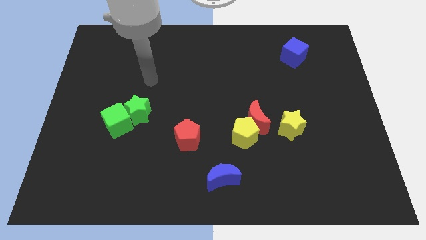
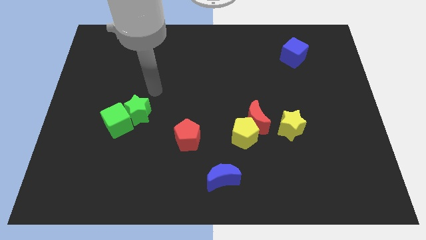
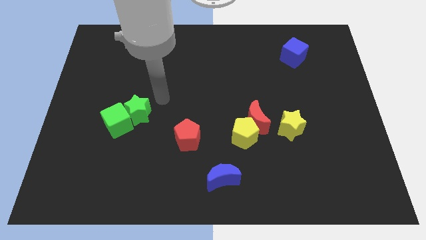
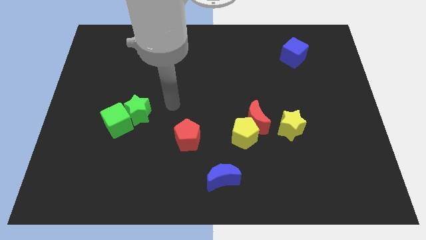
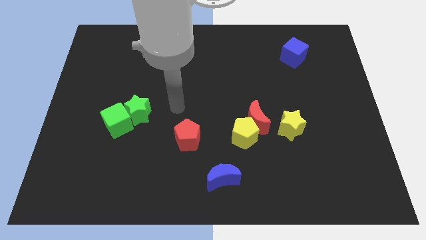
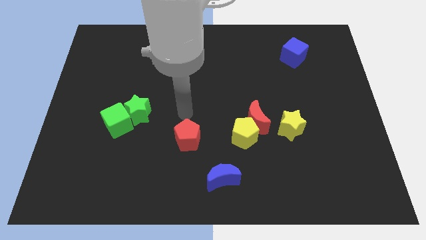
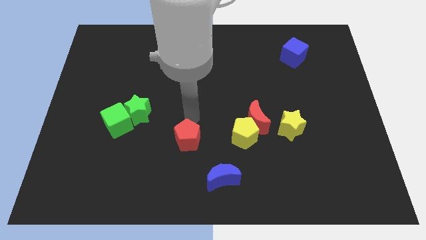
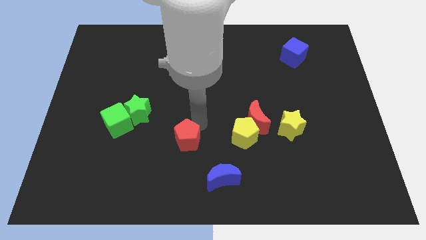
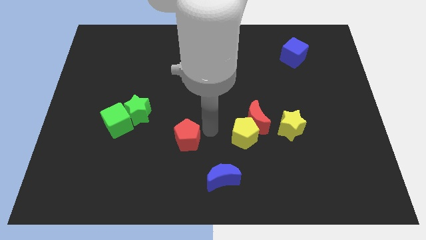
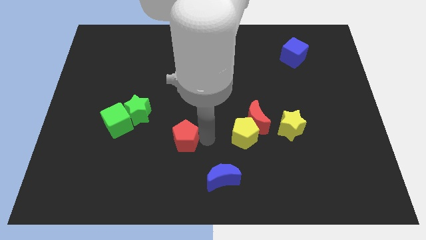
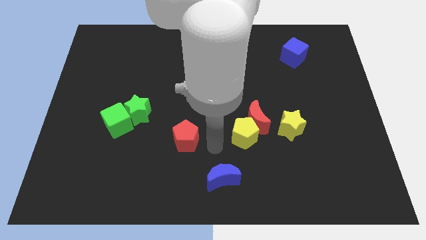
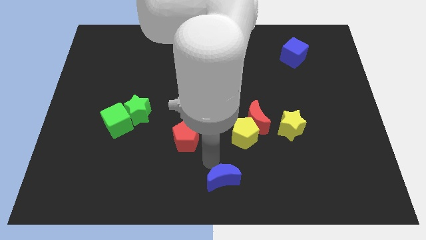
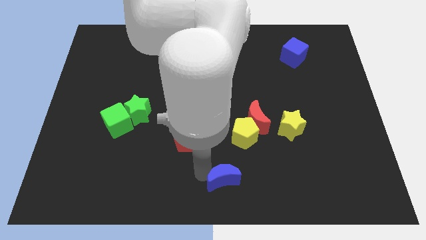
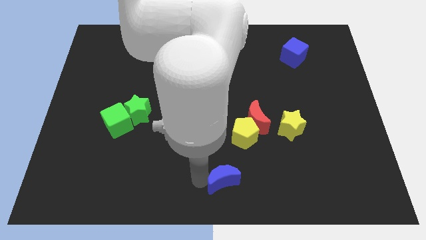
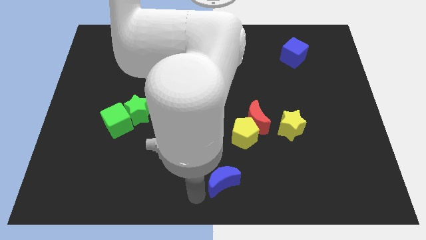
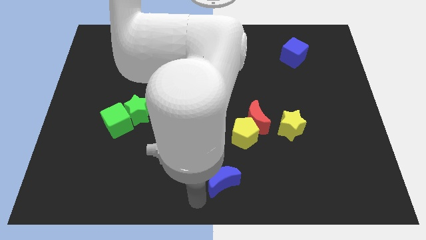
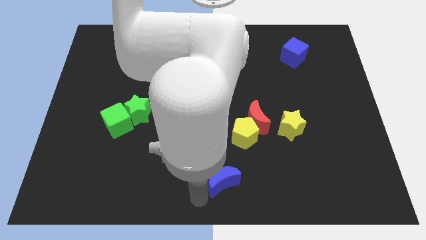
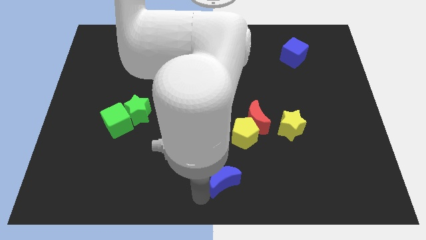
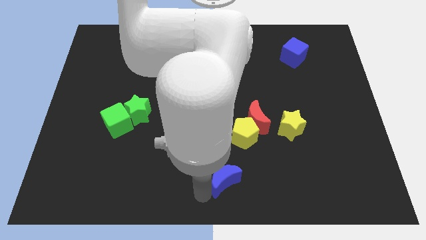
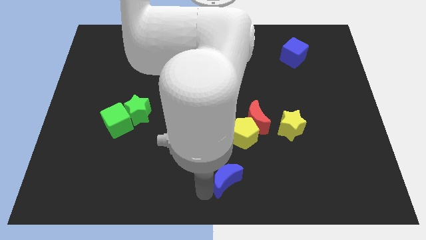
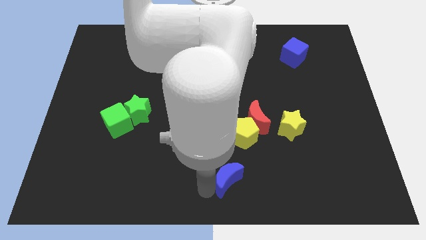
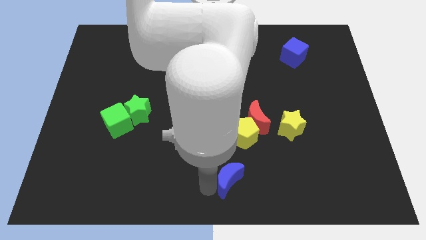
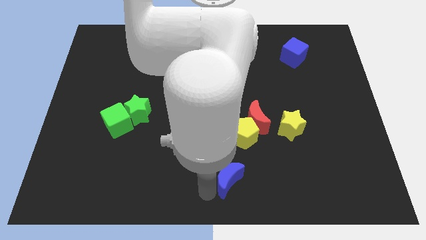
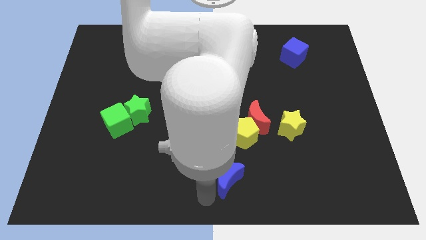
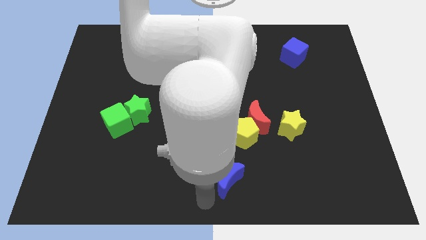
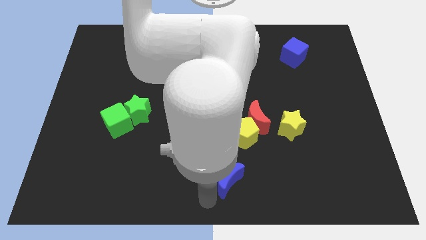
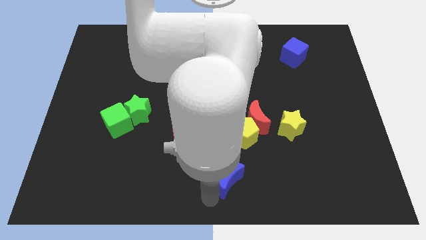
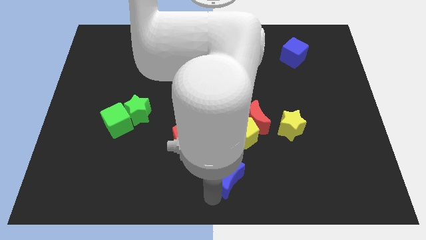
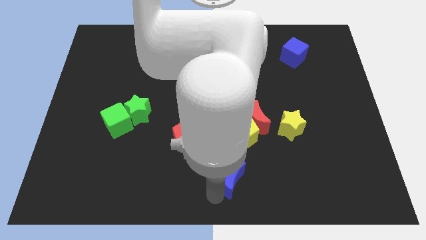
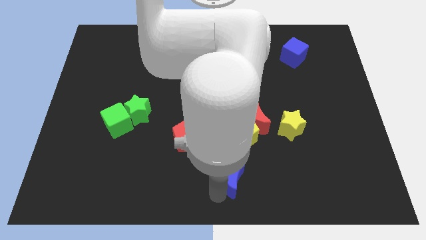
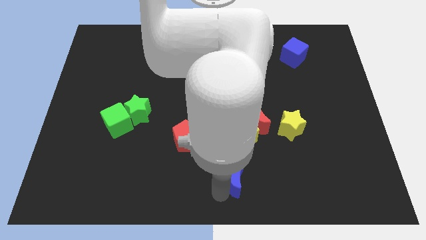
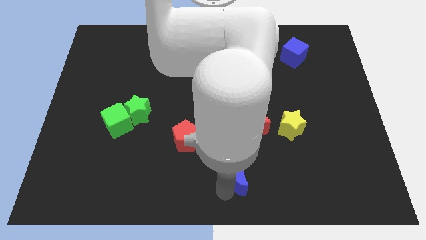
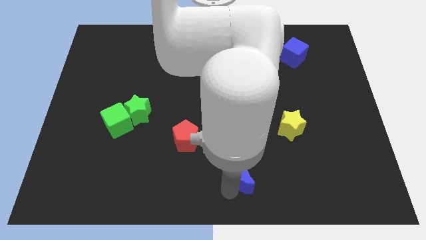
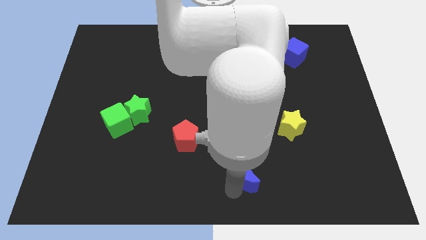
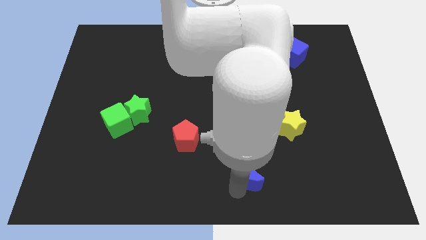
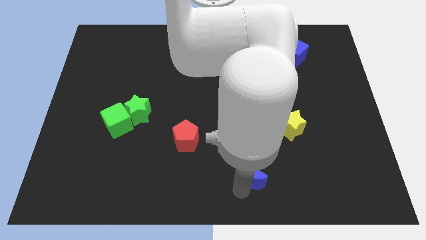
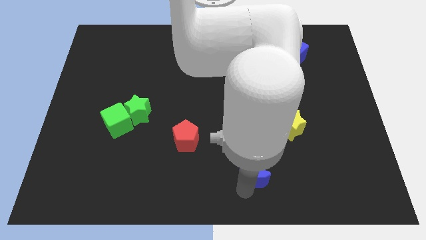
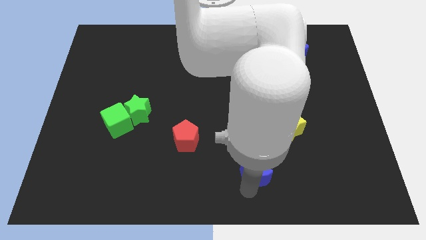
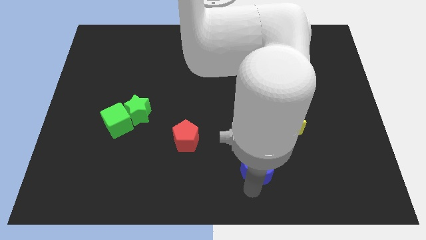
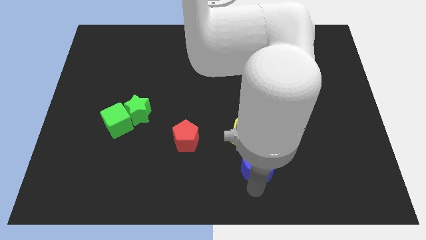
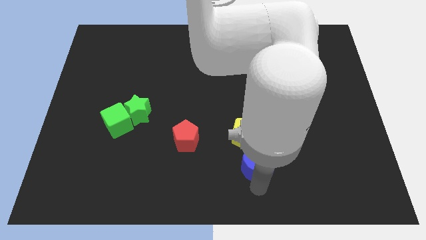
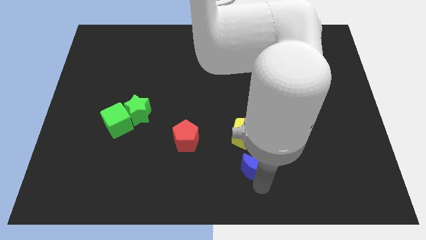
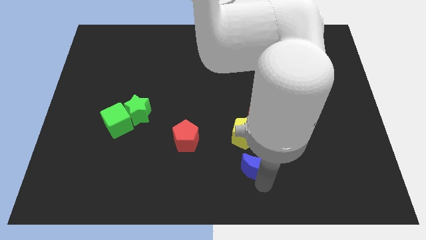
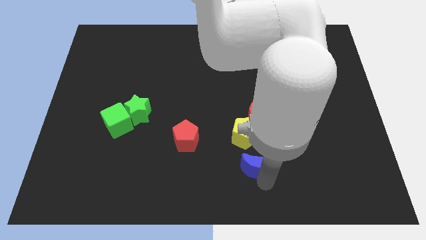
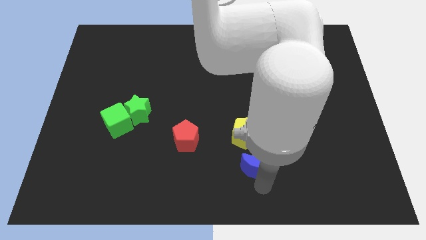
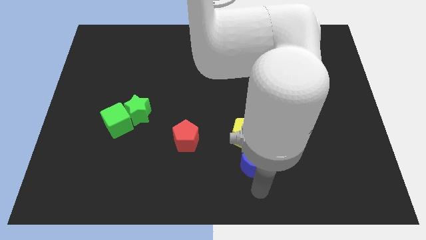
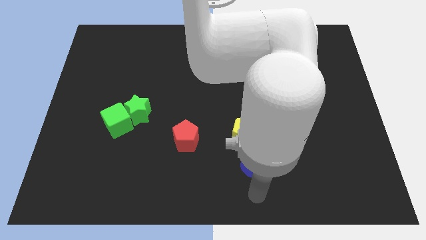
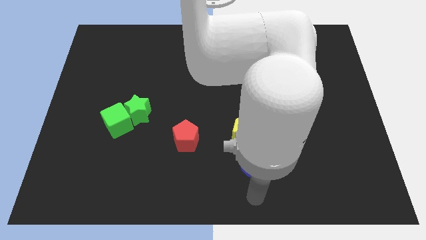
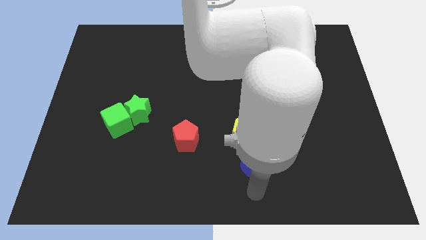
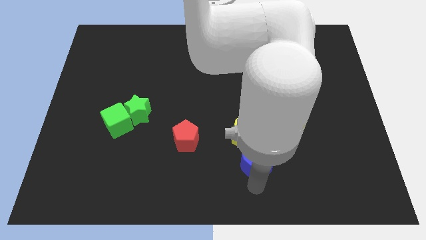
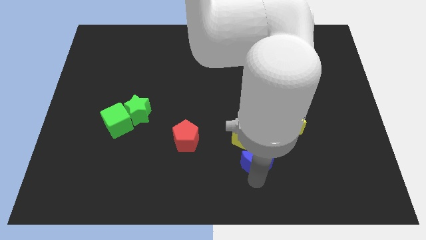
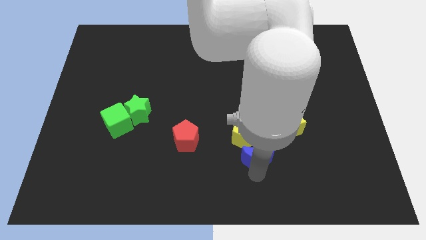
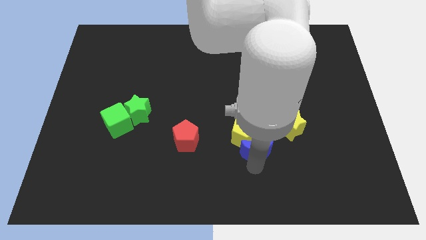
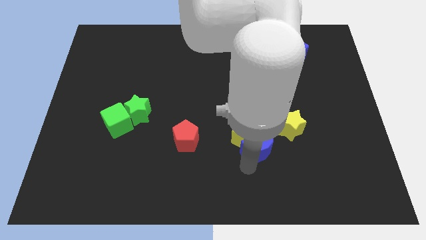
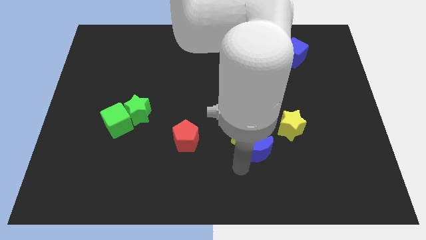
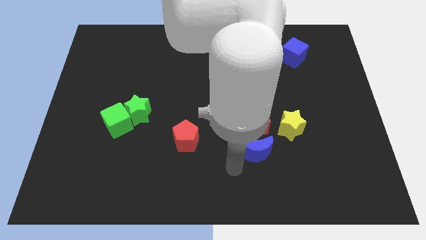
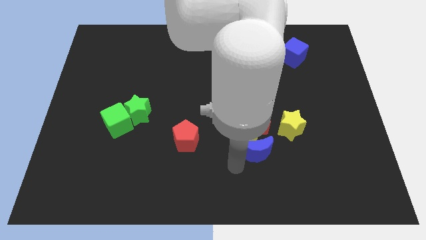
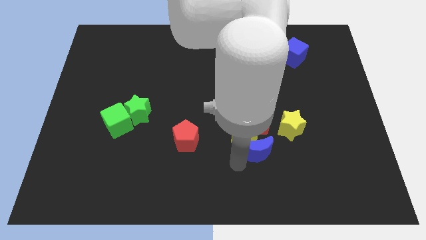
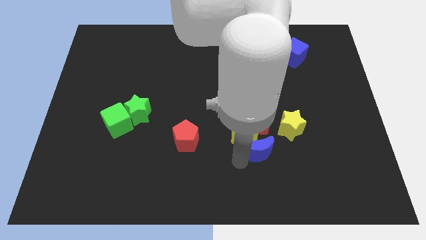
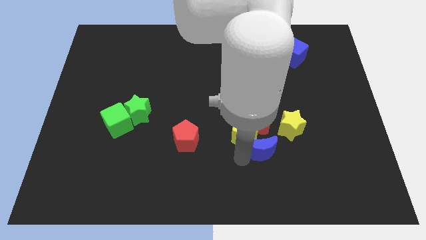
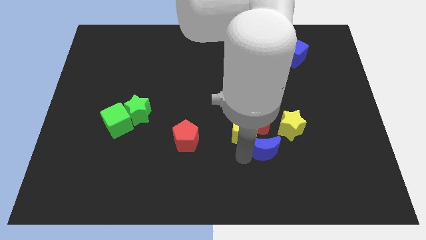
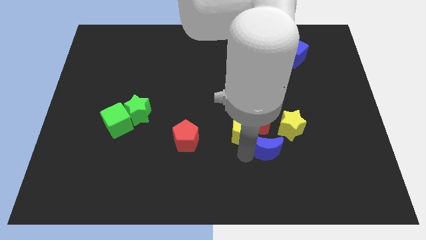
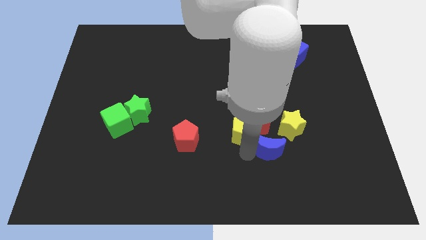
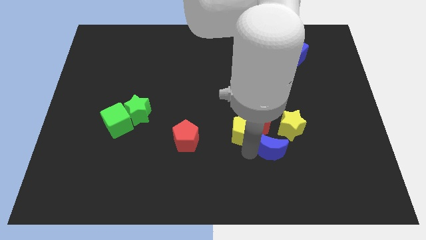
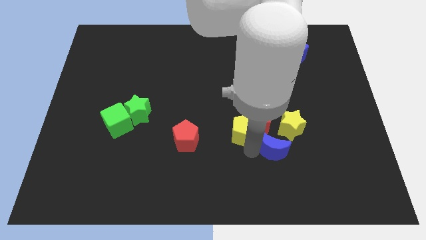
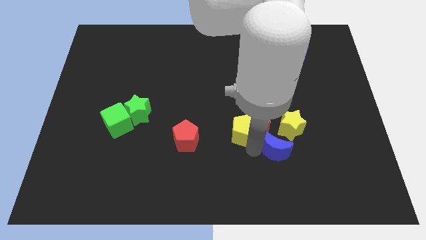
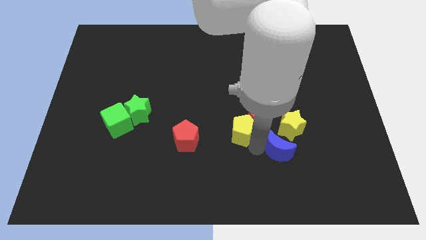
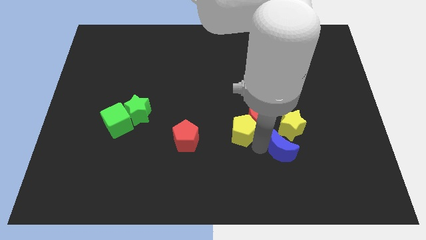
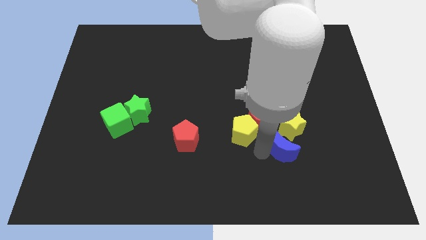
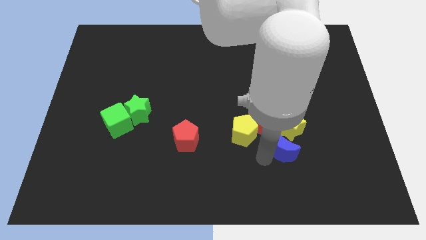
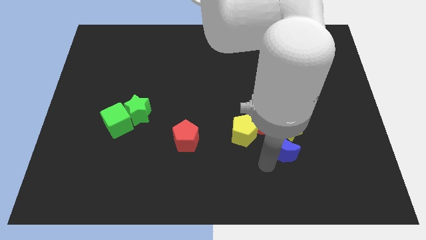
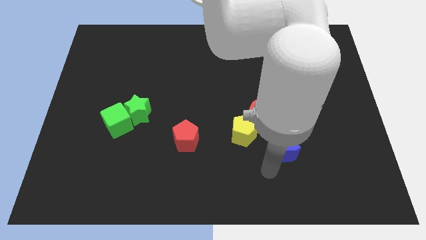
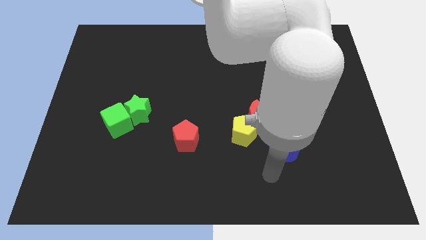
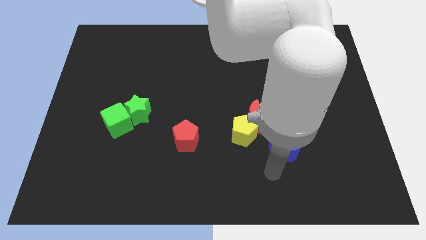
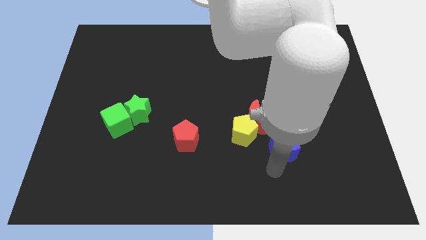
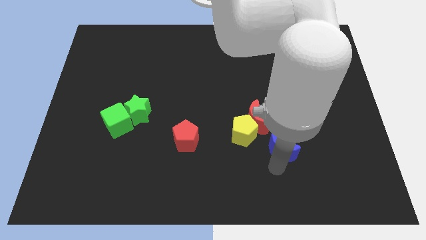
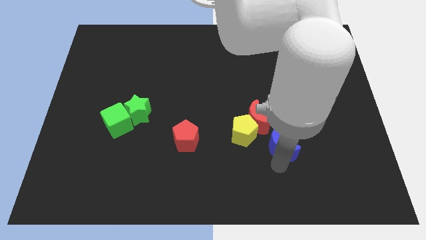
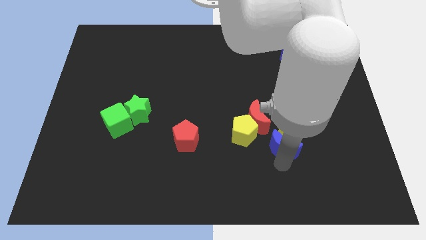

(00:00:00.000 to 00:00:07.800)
slide the blue moon to the yellow star
